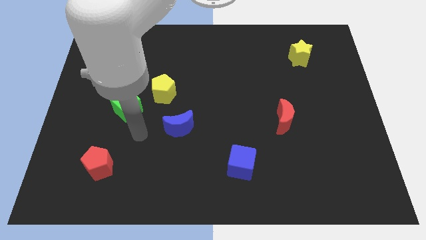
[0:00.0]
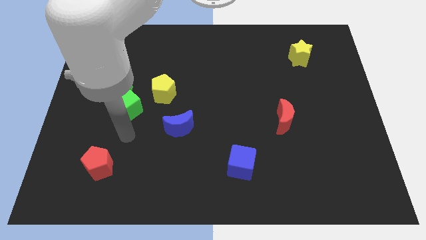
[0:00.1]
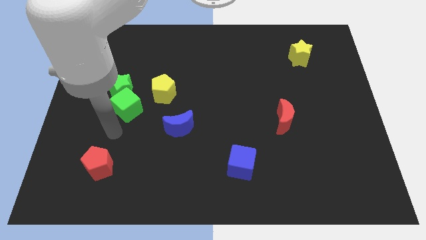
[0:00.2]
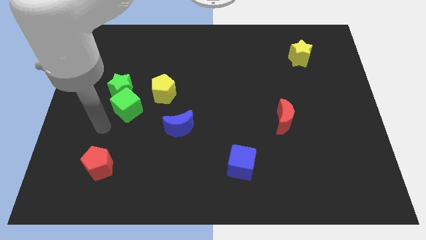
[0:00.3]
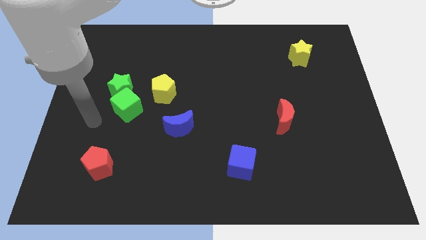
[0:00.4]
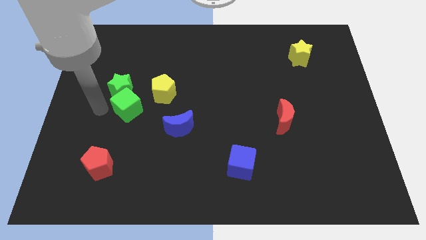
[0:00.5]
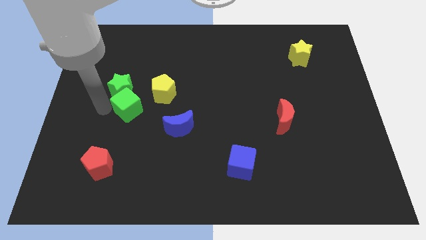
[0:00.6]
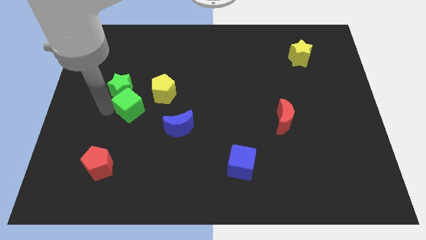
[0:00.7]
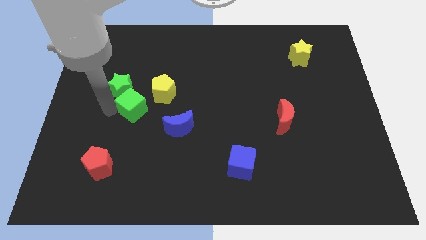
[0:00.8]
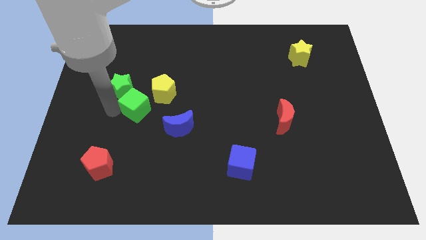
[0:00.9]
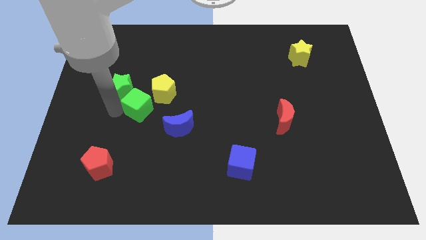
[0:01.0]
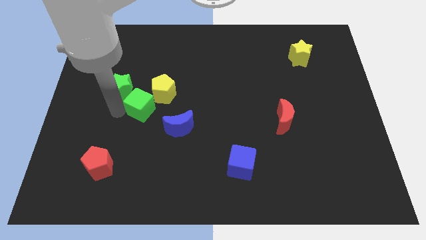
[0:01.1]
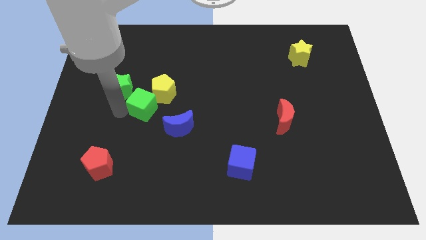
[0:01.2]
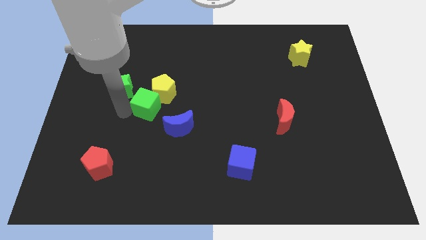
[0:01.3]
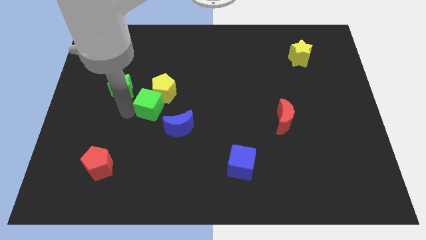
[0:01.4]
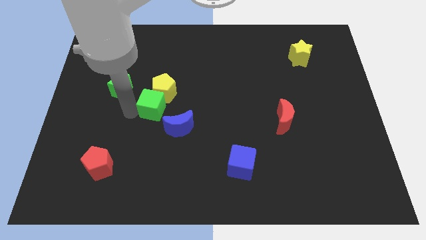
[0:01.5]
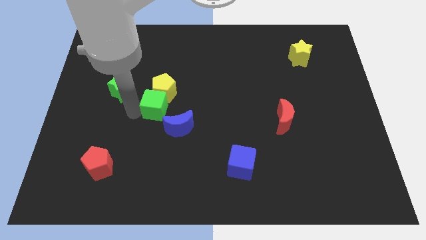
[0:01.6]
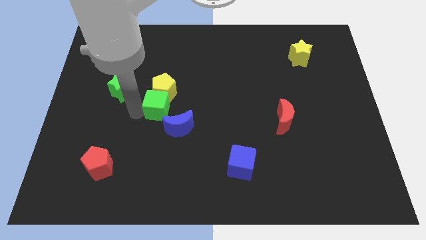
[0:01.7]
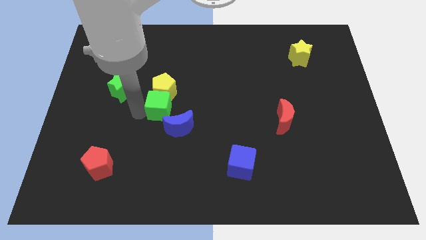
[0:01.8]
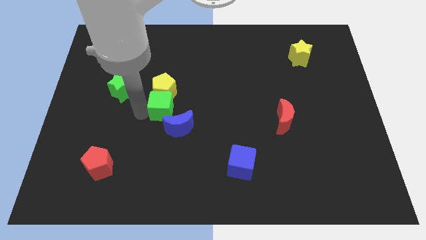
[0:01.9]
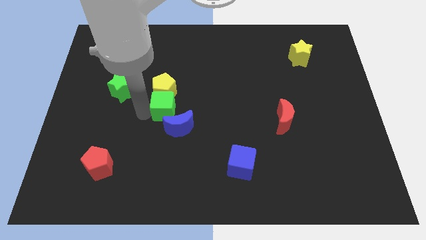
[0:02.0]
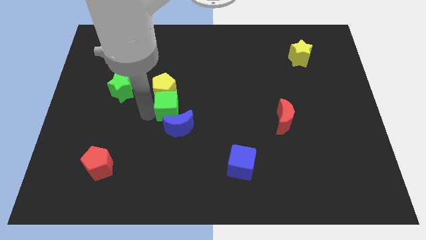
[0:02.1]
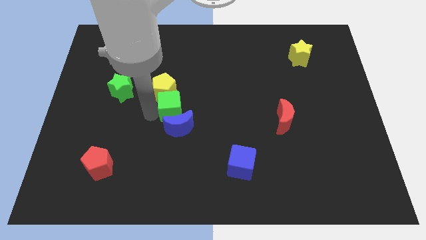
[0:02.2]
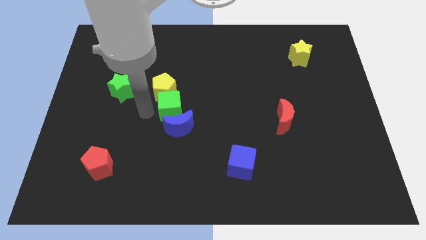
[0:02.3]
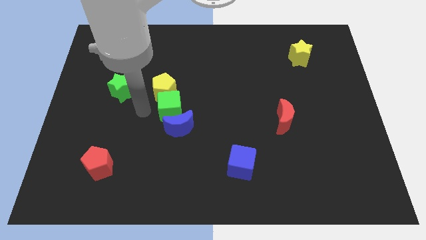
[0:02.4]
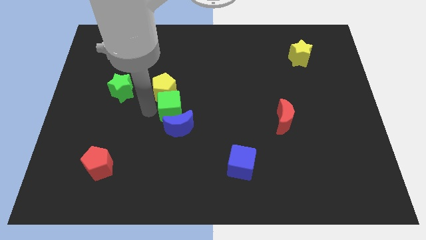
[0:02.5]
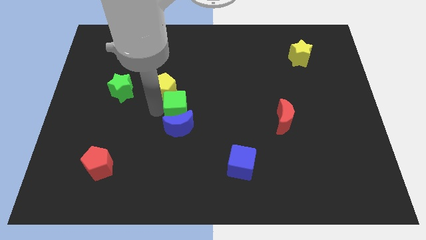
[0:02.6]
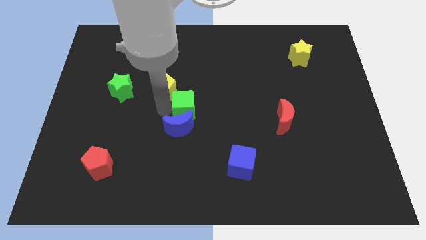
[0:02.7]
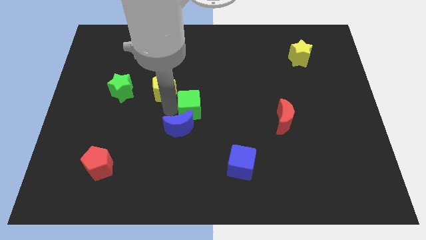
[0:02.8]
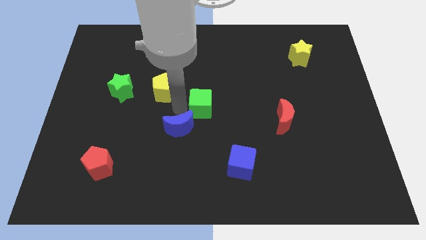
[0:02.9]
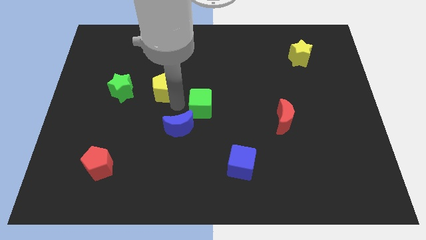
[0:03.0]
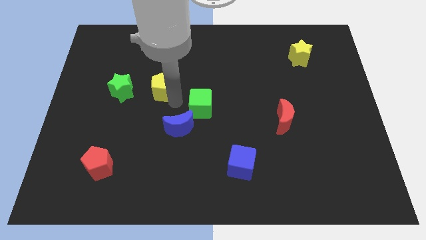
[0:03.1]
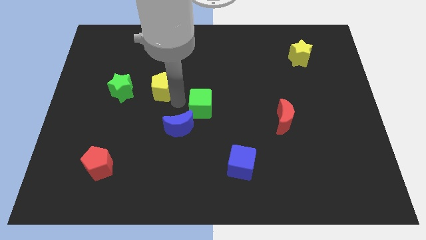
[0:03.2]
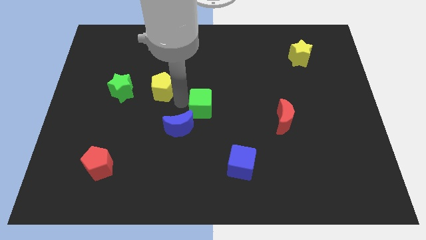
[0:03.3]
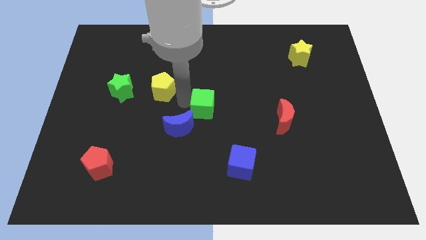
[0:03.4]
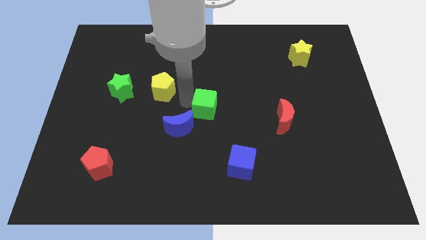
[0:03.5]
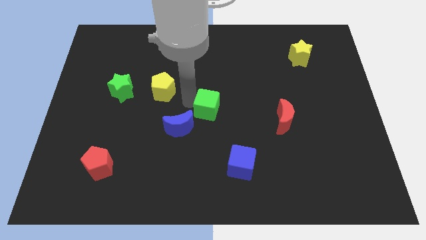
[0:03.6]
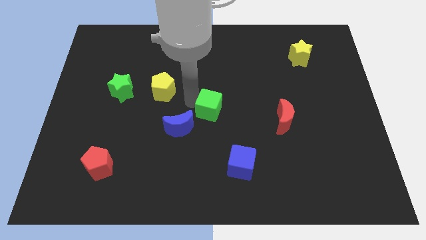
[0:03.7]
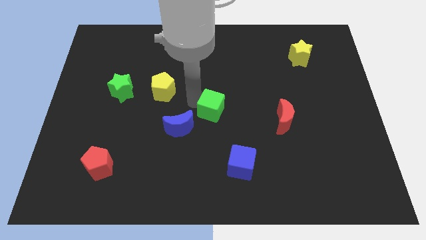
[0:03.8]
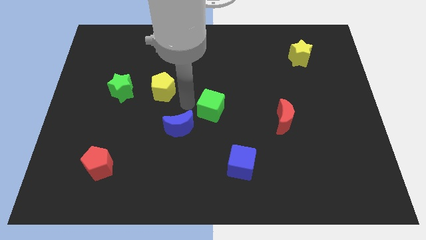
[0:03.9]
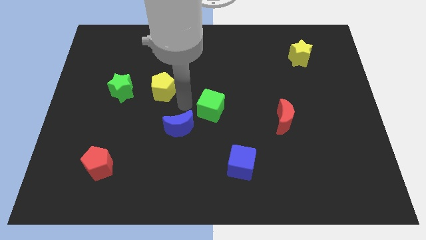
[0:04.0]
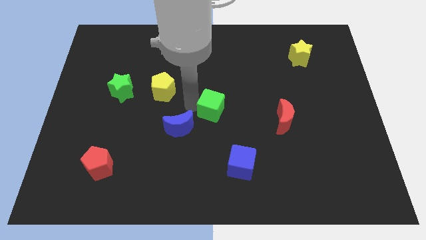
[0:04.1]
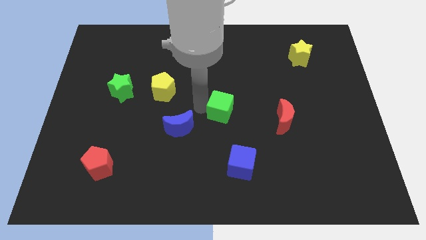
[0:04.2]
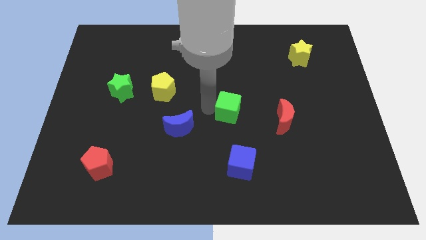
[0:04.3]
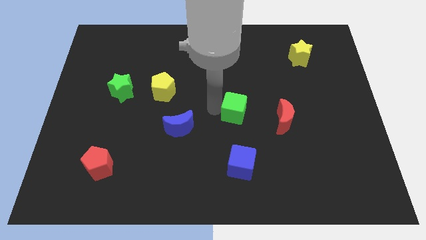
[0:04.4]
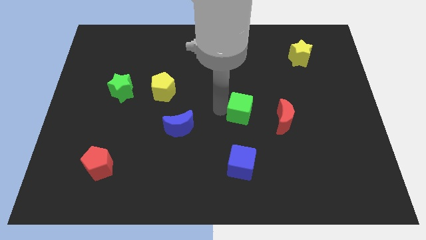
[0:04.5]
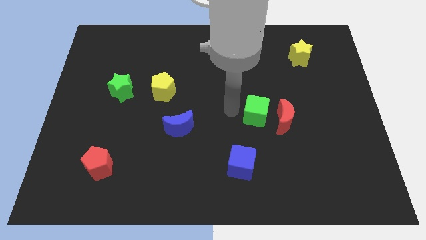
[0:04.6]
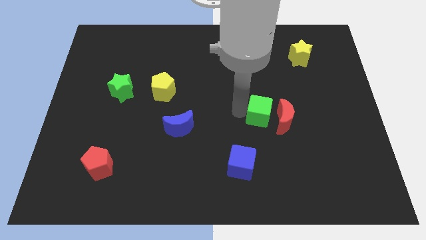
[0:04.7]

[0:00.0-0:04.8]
push the green cube towards the red moon

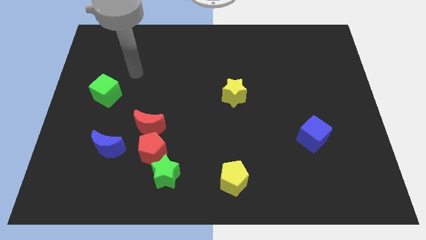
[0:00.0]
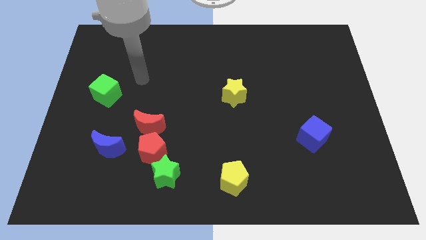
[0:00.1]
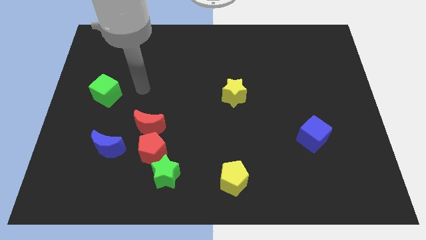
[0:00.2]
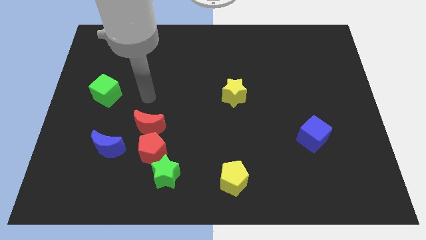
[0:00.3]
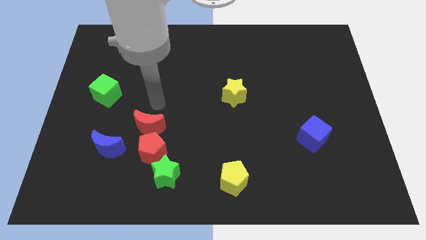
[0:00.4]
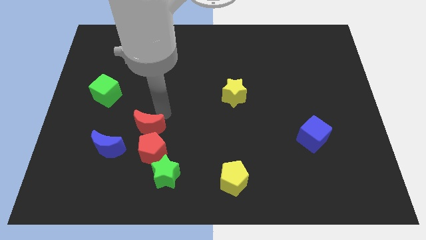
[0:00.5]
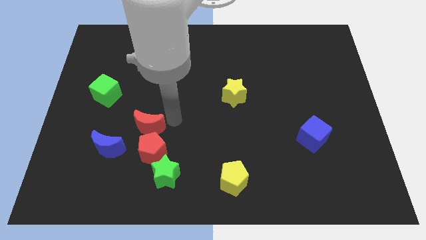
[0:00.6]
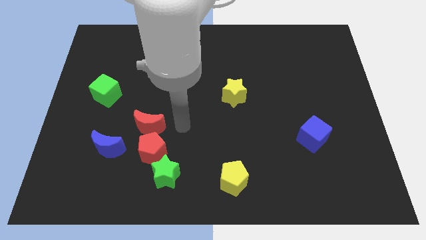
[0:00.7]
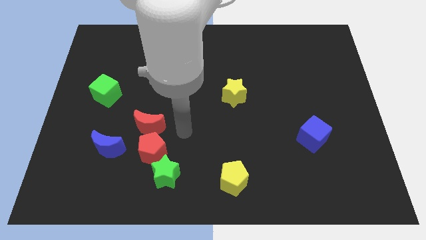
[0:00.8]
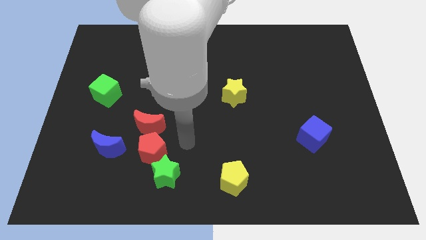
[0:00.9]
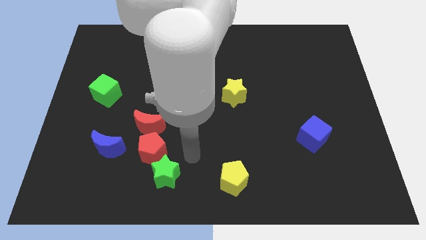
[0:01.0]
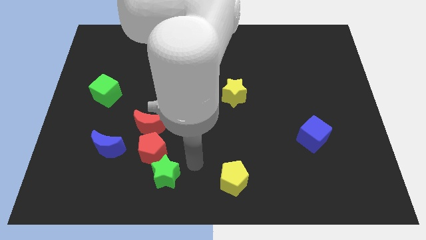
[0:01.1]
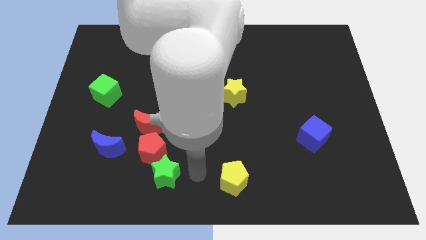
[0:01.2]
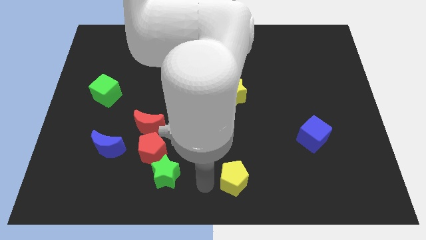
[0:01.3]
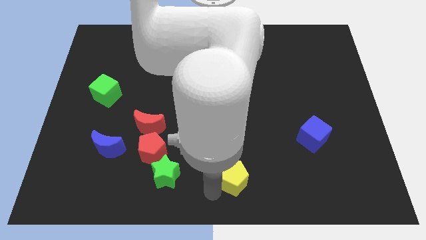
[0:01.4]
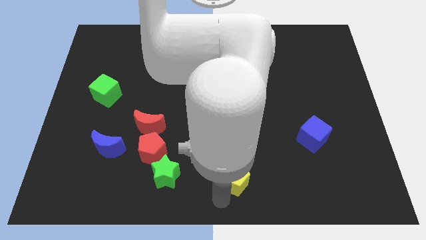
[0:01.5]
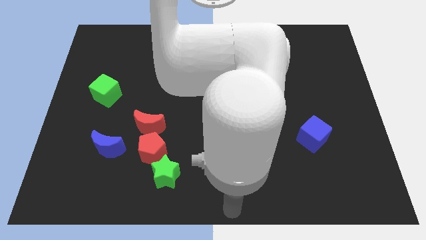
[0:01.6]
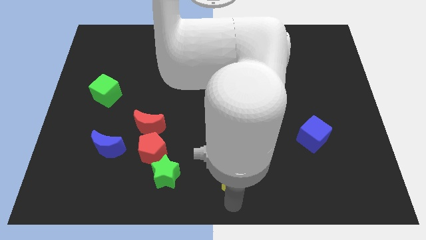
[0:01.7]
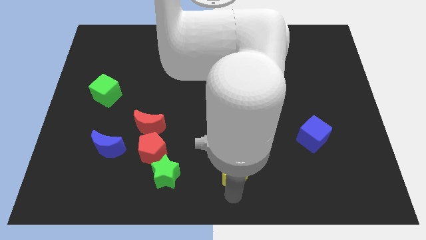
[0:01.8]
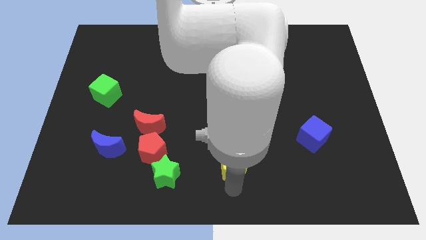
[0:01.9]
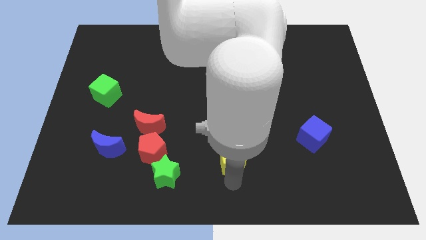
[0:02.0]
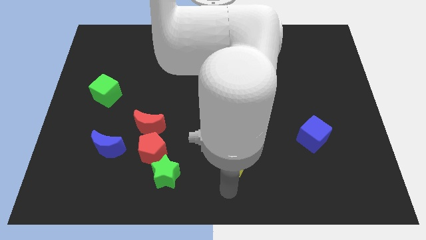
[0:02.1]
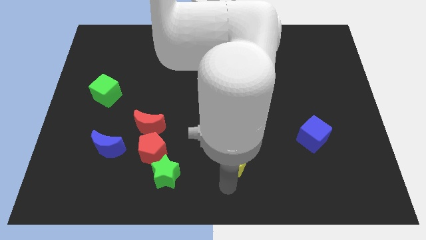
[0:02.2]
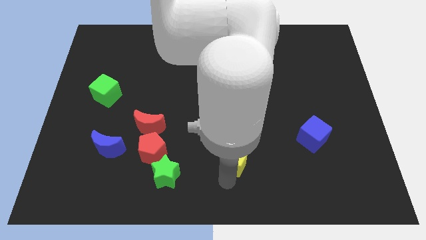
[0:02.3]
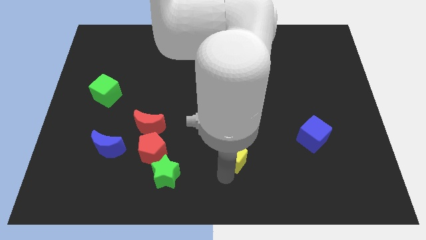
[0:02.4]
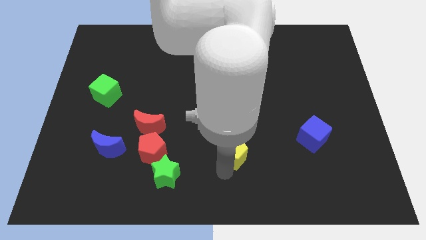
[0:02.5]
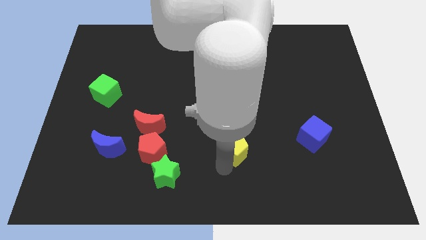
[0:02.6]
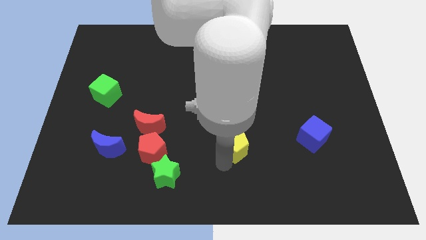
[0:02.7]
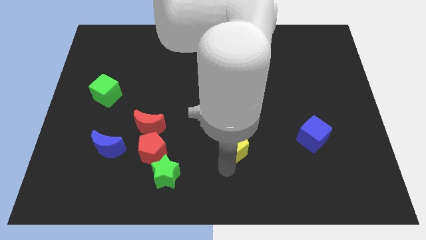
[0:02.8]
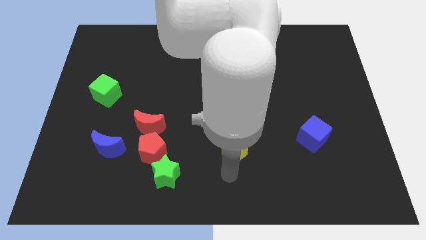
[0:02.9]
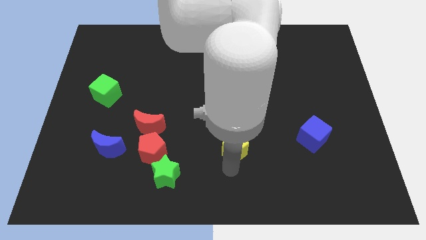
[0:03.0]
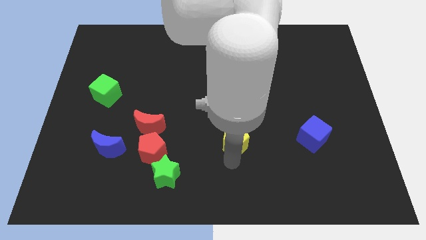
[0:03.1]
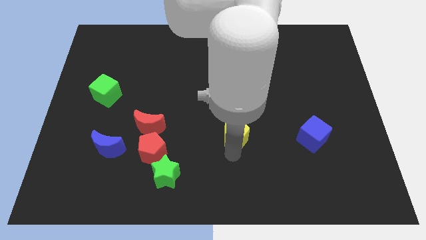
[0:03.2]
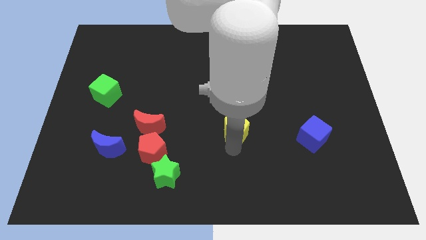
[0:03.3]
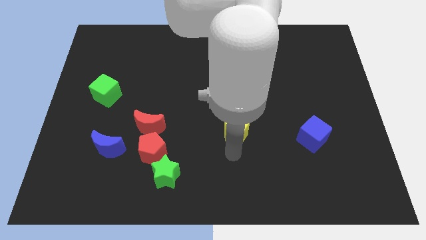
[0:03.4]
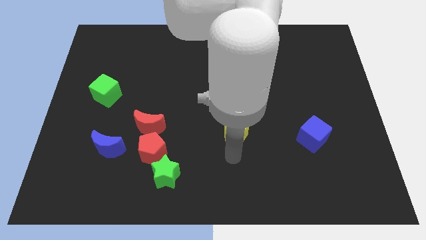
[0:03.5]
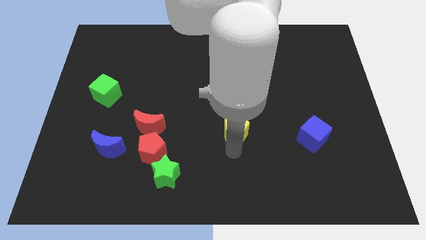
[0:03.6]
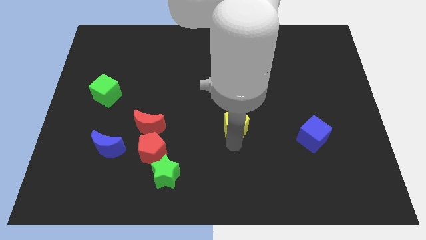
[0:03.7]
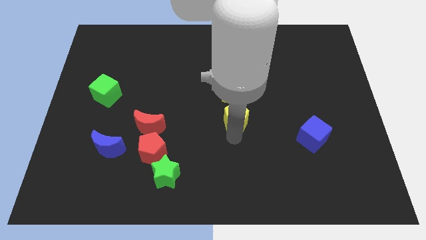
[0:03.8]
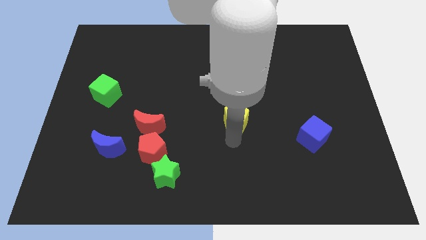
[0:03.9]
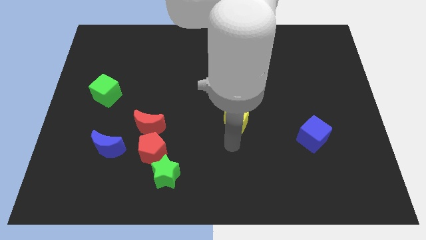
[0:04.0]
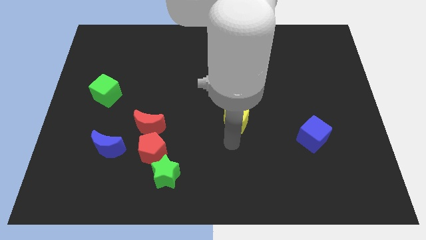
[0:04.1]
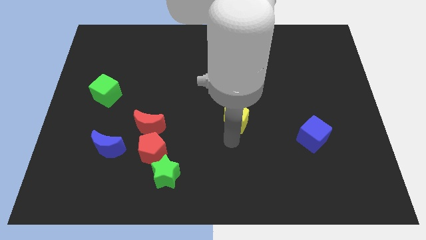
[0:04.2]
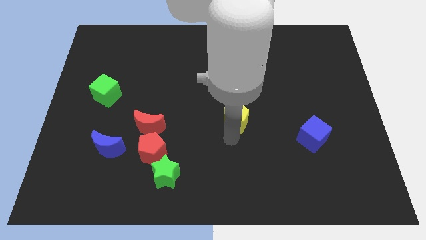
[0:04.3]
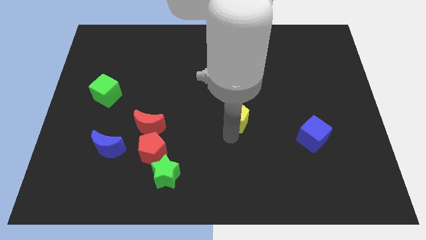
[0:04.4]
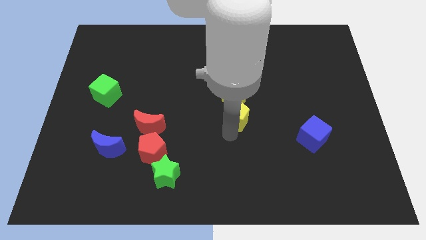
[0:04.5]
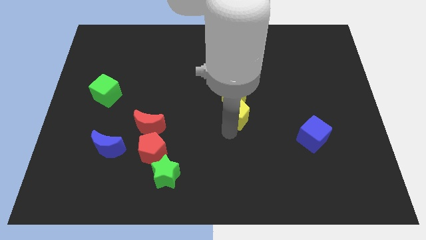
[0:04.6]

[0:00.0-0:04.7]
move the yellow pentagon close to the yellow star
